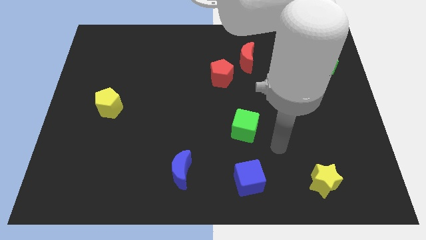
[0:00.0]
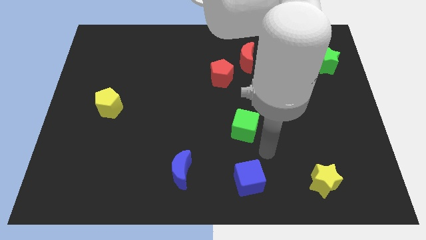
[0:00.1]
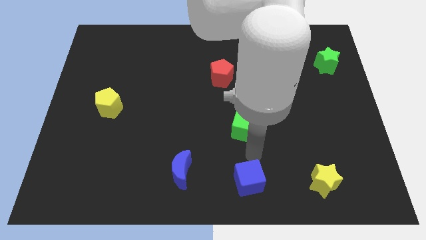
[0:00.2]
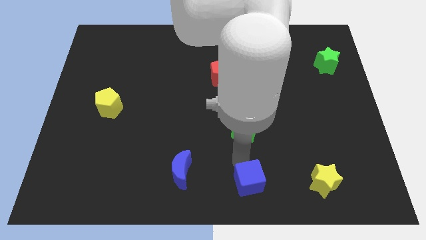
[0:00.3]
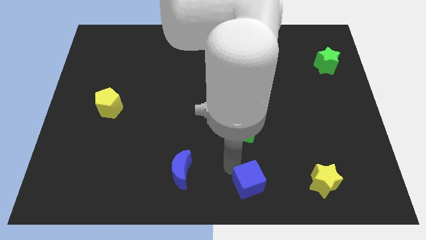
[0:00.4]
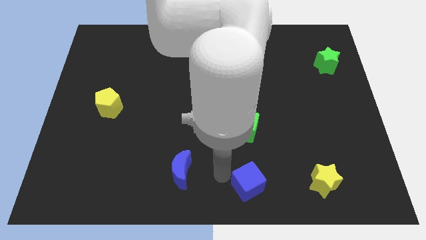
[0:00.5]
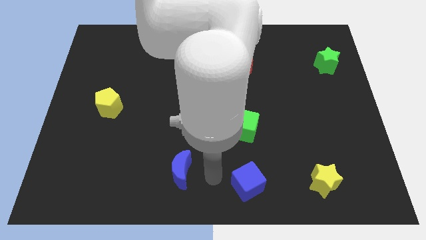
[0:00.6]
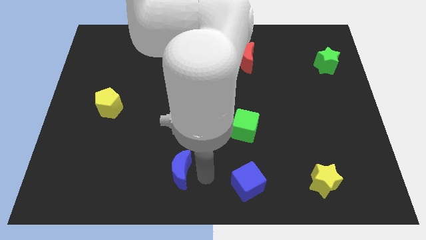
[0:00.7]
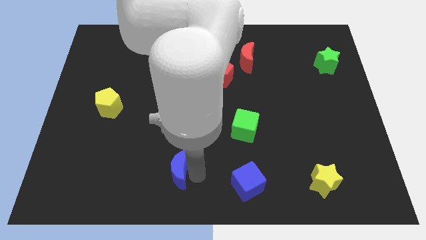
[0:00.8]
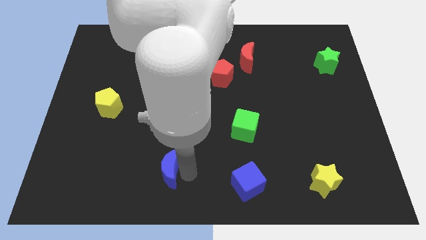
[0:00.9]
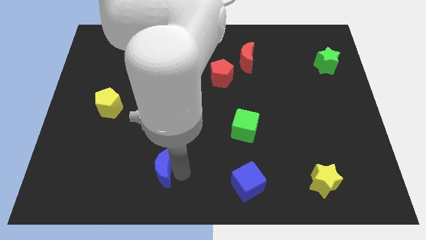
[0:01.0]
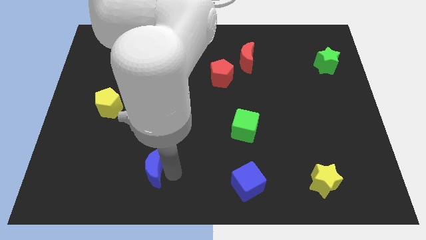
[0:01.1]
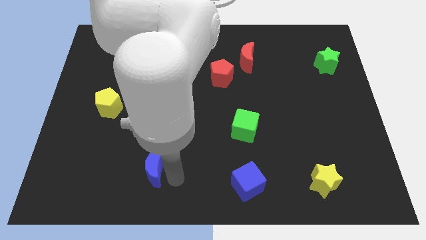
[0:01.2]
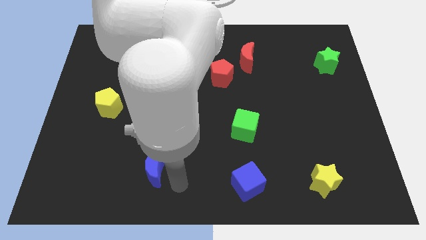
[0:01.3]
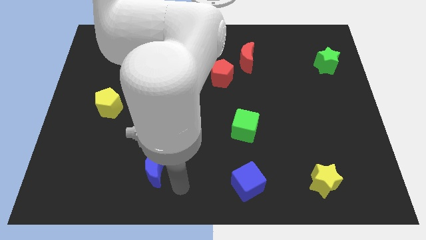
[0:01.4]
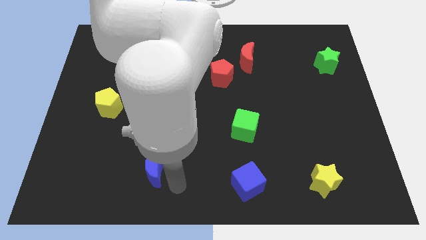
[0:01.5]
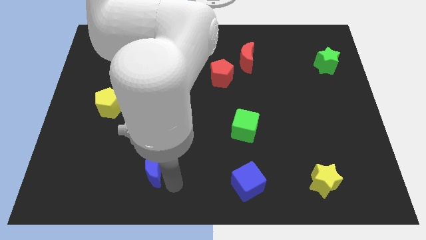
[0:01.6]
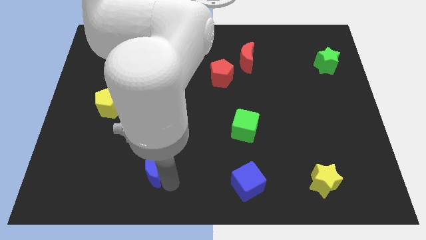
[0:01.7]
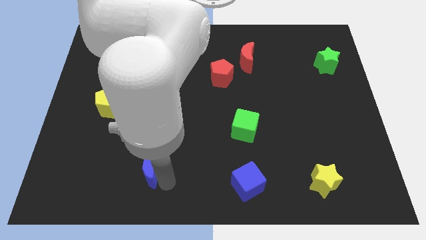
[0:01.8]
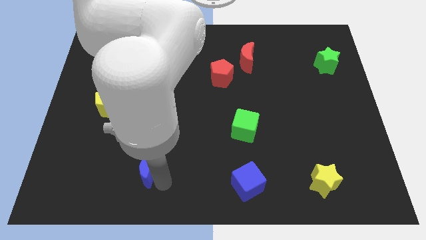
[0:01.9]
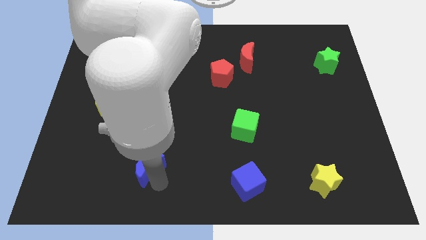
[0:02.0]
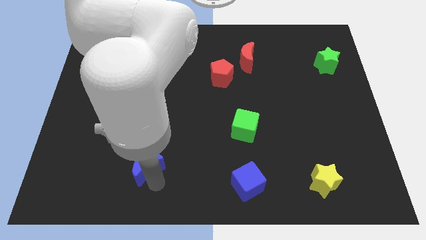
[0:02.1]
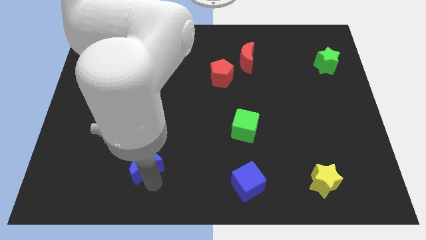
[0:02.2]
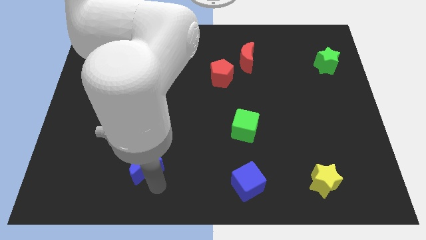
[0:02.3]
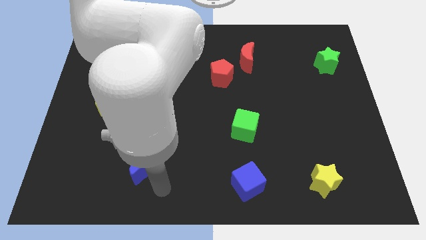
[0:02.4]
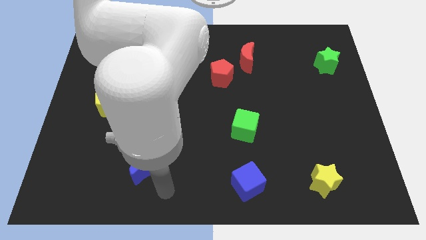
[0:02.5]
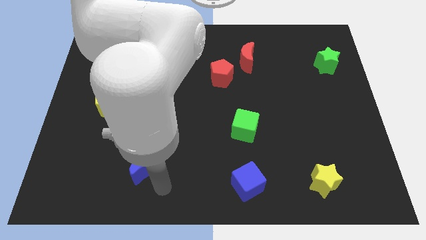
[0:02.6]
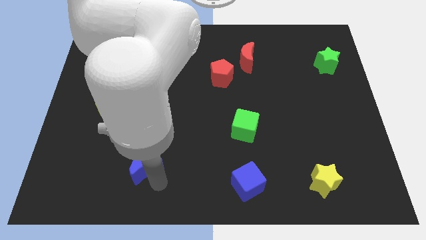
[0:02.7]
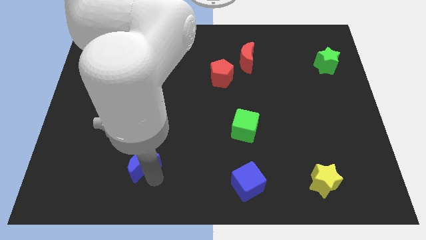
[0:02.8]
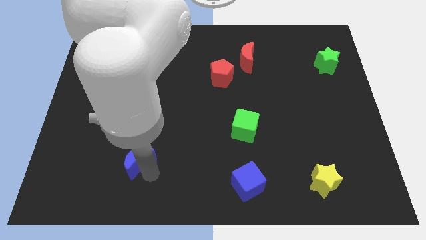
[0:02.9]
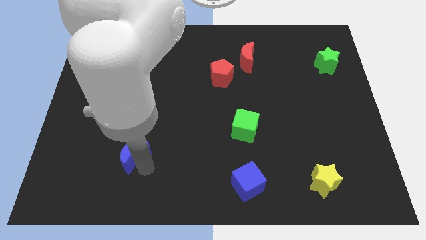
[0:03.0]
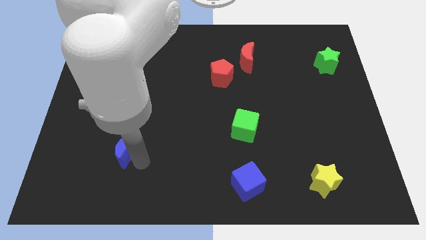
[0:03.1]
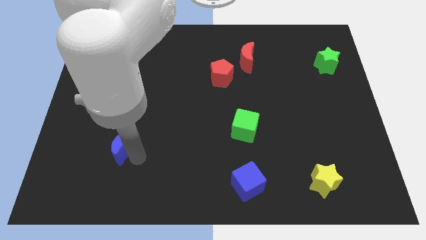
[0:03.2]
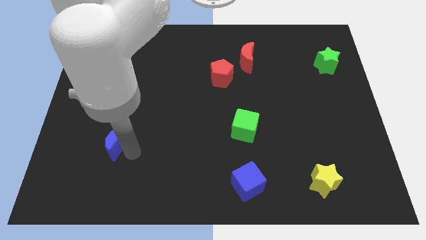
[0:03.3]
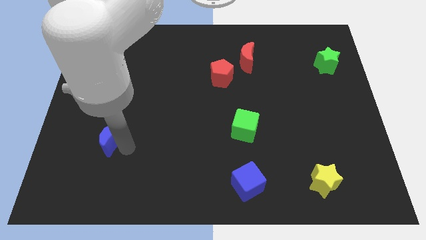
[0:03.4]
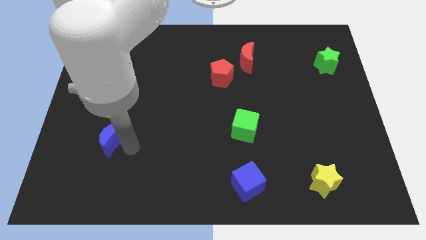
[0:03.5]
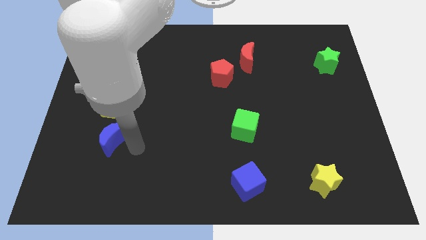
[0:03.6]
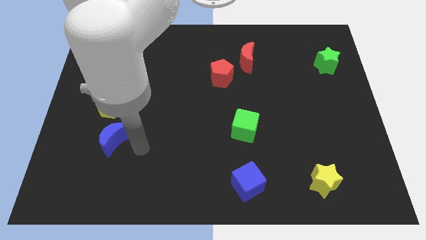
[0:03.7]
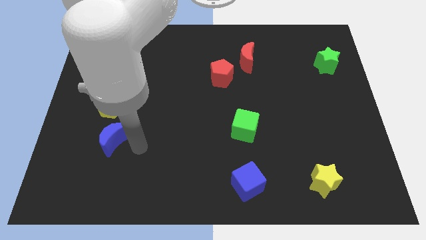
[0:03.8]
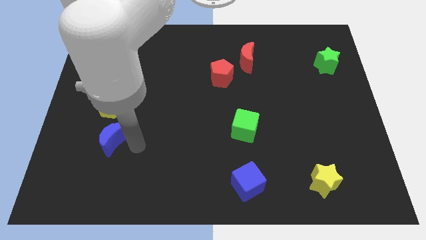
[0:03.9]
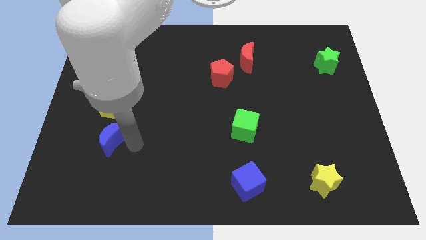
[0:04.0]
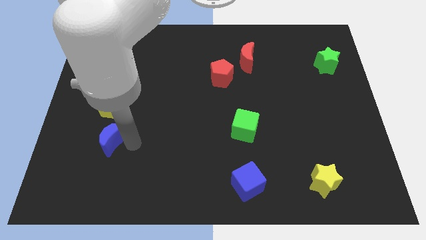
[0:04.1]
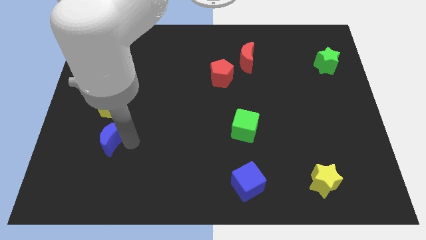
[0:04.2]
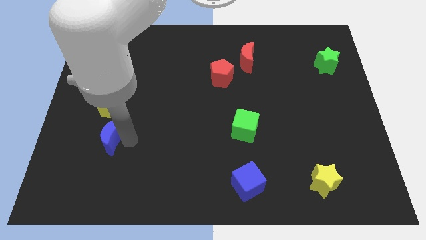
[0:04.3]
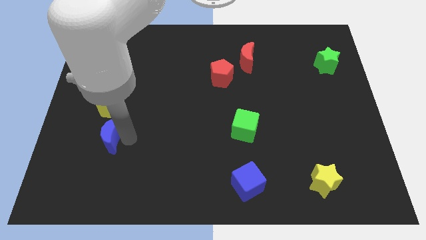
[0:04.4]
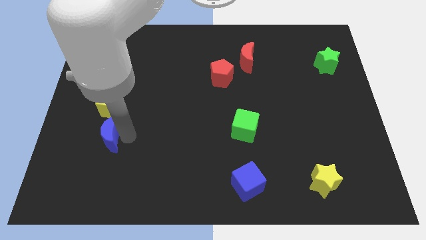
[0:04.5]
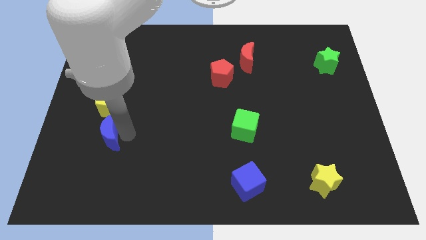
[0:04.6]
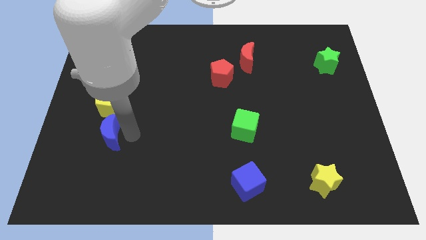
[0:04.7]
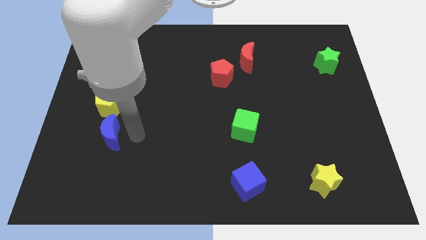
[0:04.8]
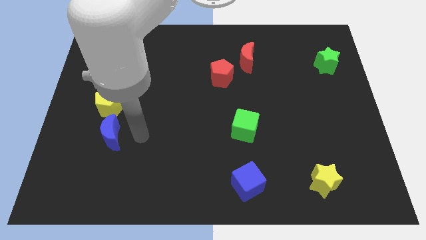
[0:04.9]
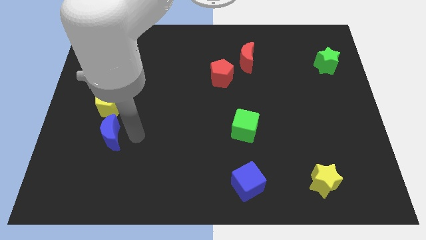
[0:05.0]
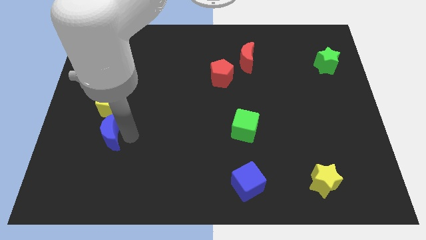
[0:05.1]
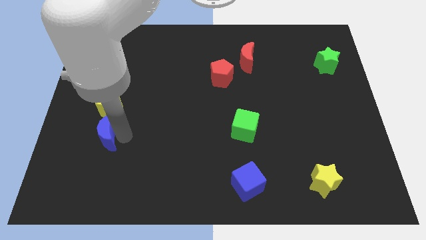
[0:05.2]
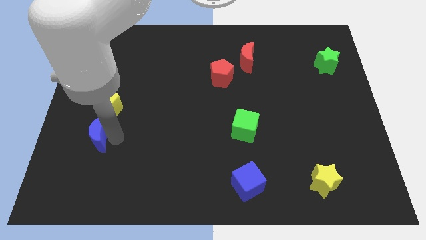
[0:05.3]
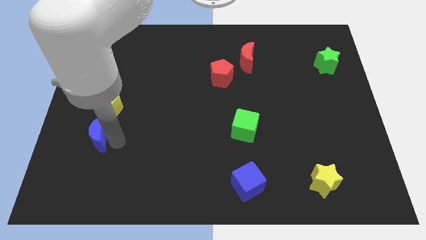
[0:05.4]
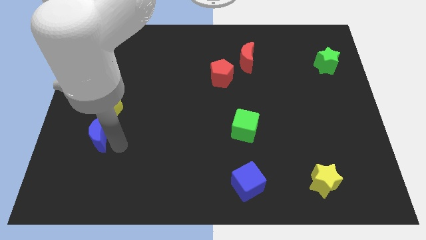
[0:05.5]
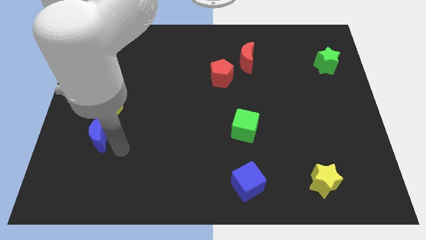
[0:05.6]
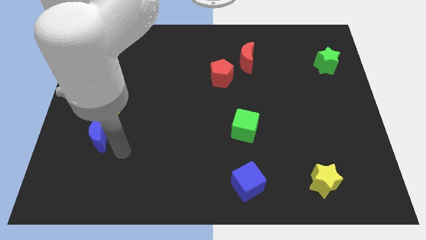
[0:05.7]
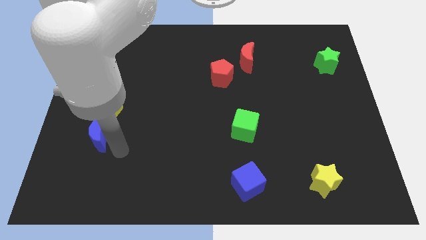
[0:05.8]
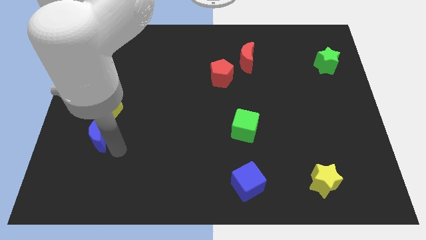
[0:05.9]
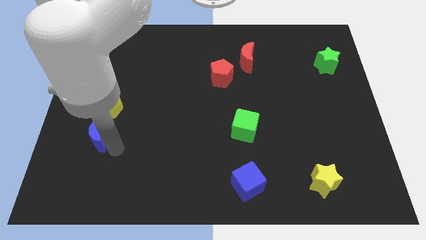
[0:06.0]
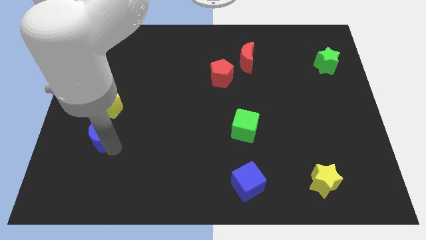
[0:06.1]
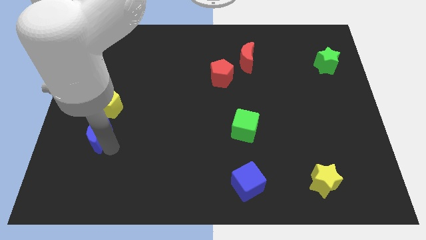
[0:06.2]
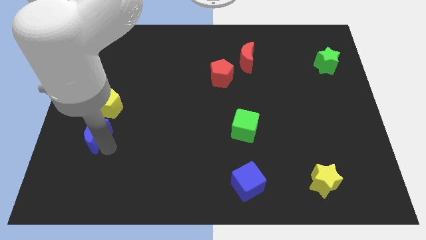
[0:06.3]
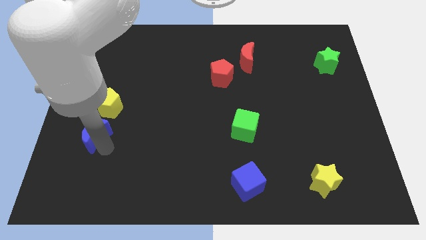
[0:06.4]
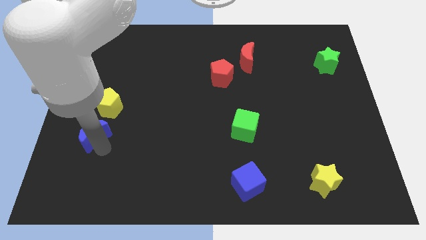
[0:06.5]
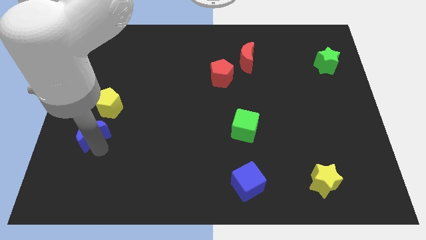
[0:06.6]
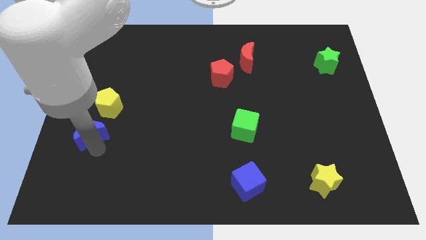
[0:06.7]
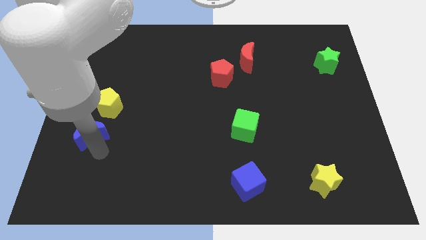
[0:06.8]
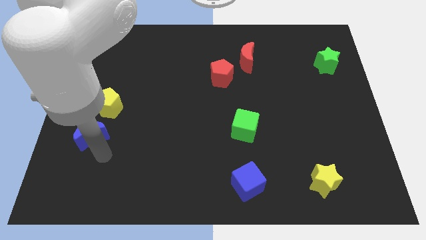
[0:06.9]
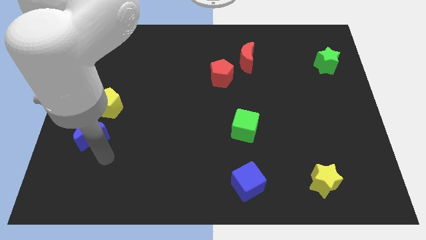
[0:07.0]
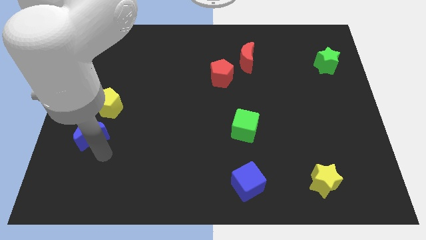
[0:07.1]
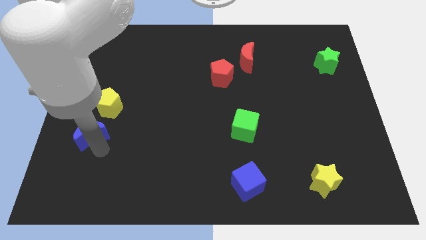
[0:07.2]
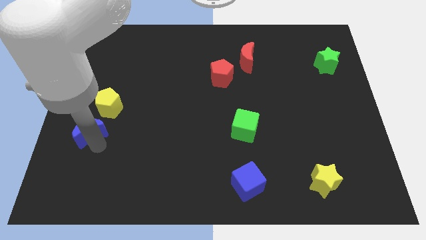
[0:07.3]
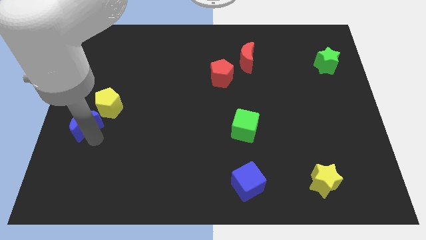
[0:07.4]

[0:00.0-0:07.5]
move the blue moon to the left side of the board
